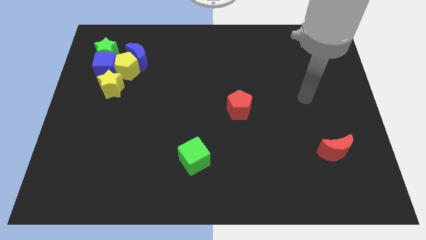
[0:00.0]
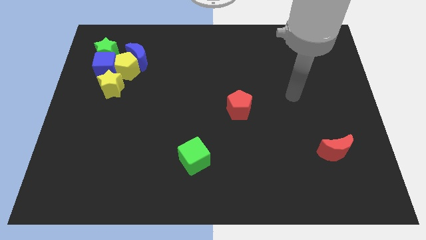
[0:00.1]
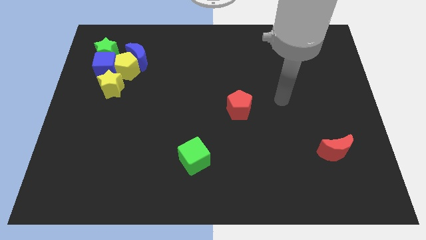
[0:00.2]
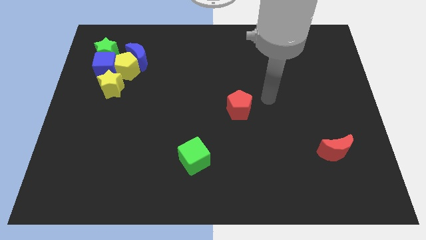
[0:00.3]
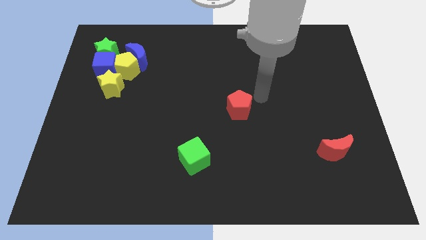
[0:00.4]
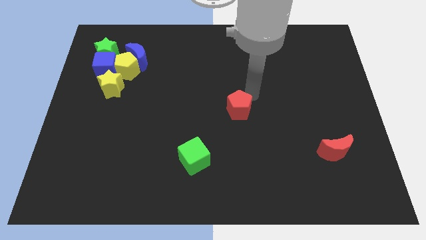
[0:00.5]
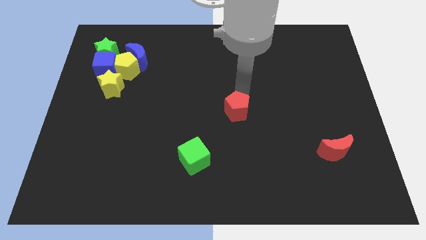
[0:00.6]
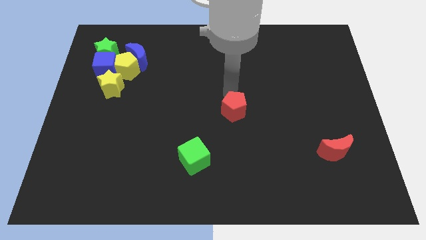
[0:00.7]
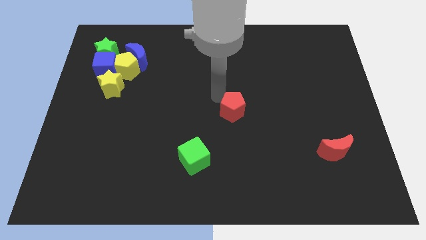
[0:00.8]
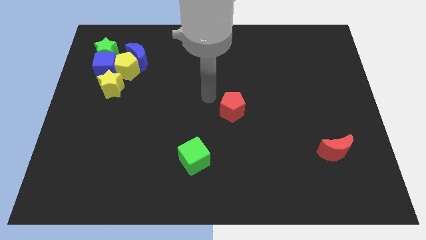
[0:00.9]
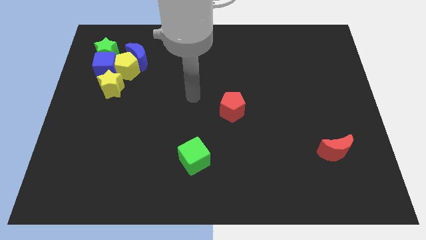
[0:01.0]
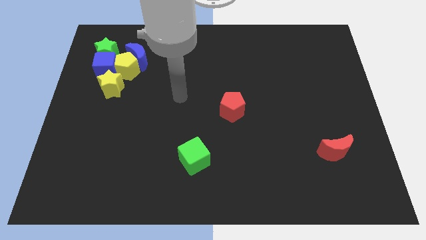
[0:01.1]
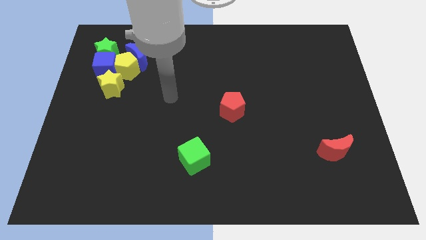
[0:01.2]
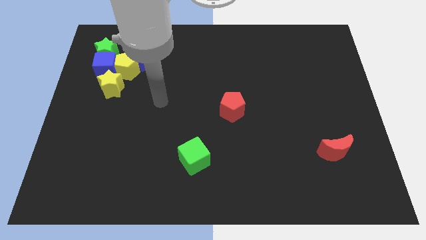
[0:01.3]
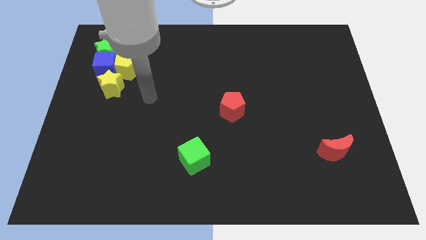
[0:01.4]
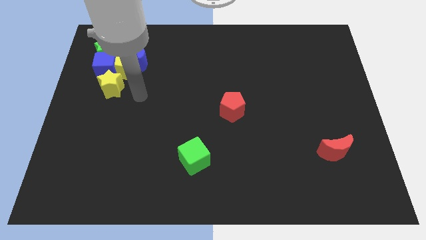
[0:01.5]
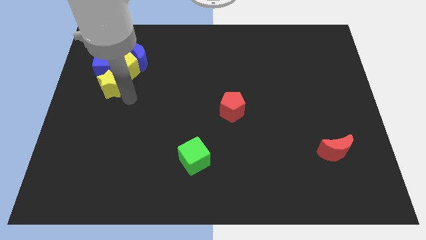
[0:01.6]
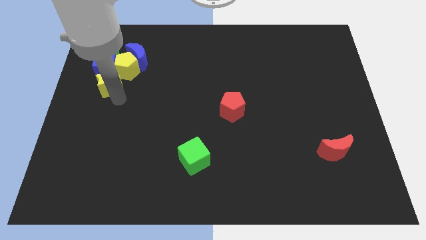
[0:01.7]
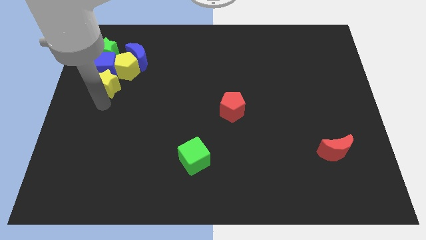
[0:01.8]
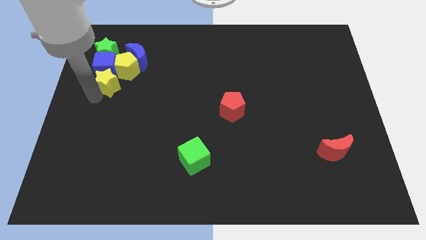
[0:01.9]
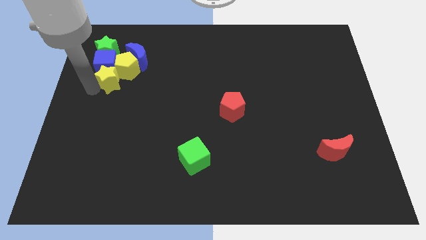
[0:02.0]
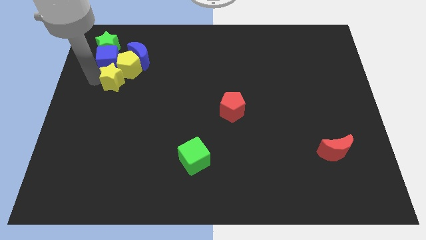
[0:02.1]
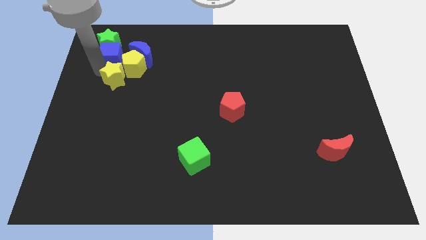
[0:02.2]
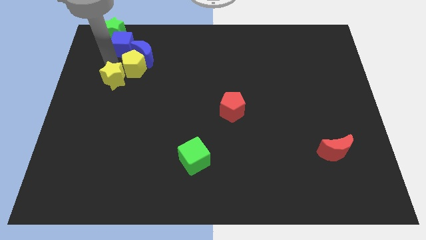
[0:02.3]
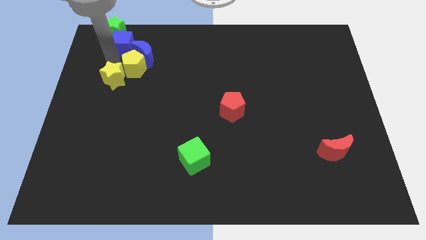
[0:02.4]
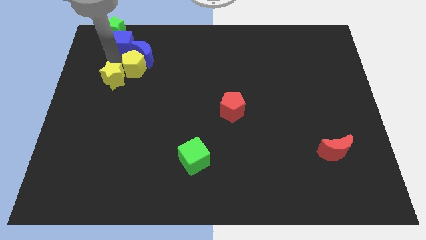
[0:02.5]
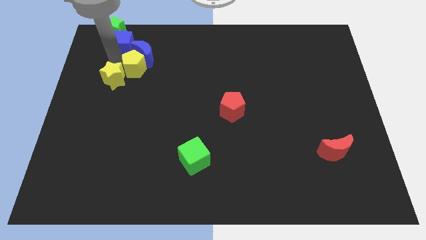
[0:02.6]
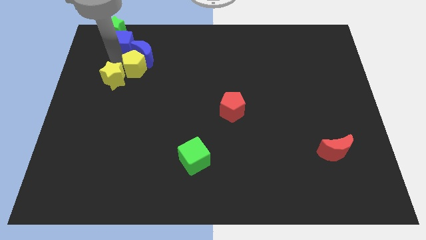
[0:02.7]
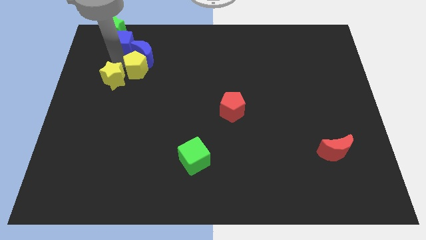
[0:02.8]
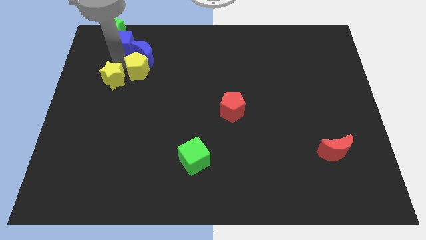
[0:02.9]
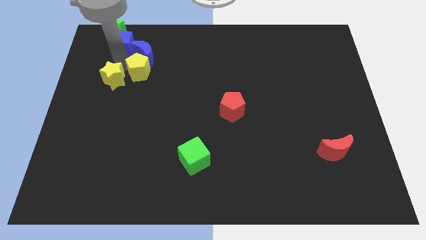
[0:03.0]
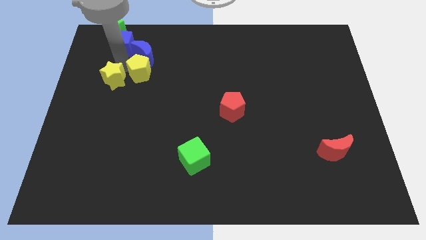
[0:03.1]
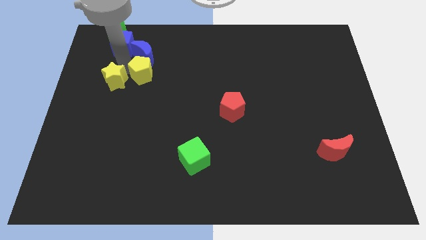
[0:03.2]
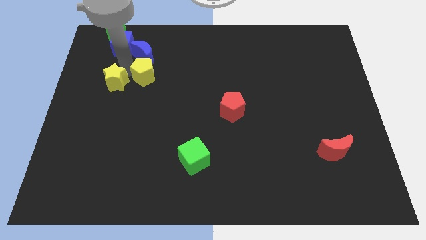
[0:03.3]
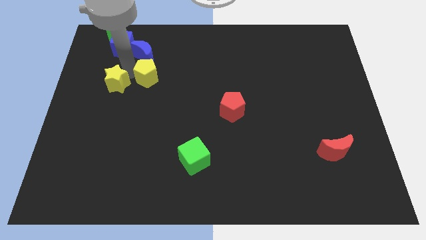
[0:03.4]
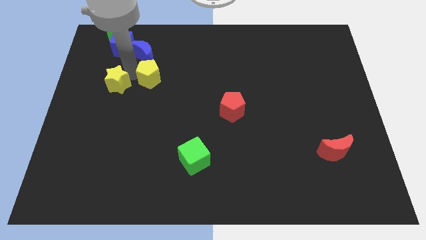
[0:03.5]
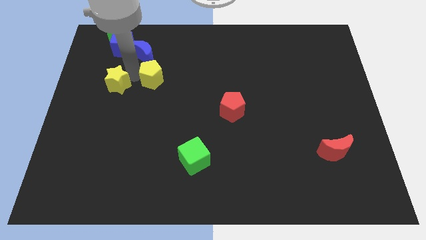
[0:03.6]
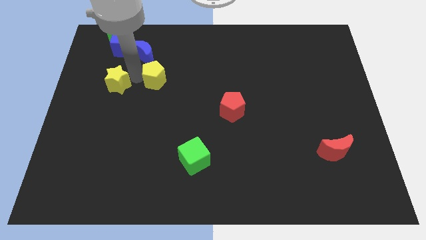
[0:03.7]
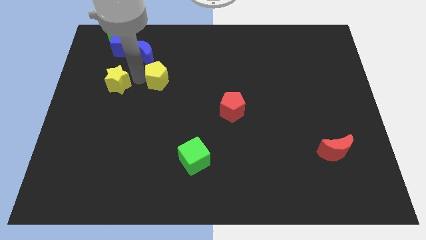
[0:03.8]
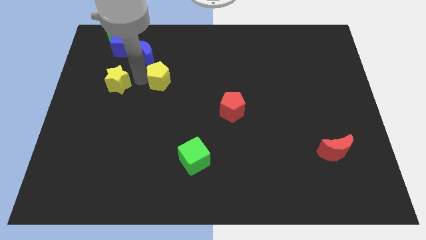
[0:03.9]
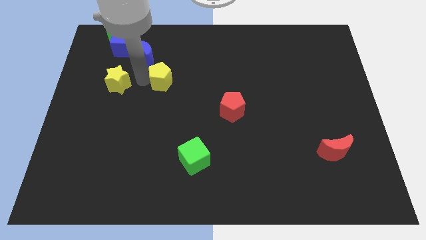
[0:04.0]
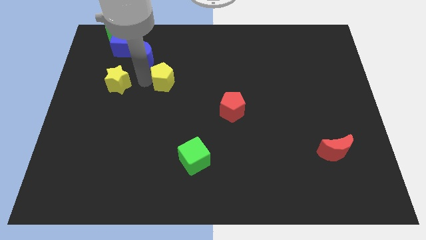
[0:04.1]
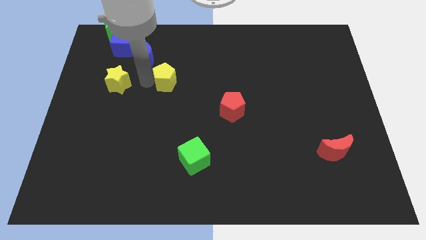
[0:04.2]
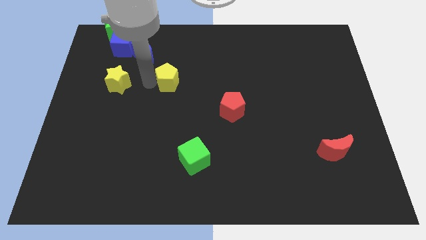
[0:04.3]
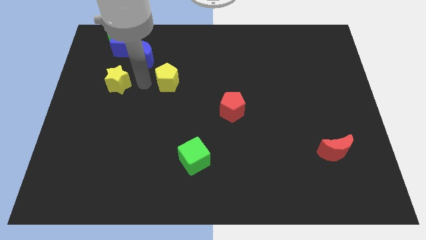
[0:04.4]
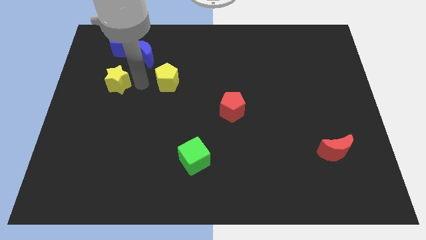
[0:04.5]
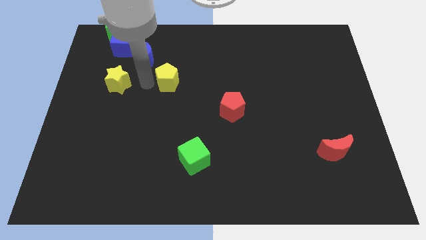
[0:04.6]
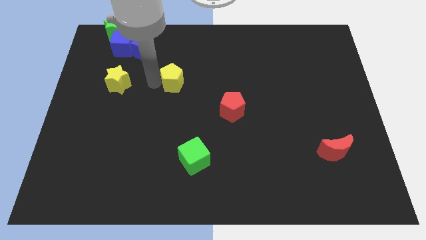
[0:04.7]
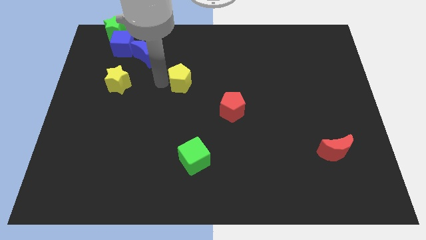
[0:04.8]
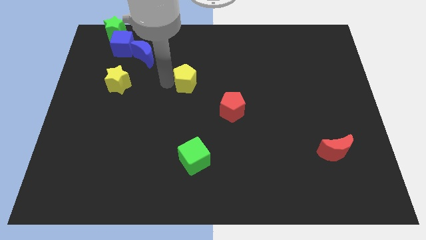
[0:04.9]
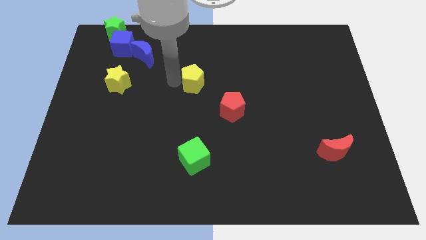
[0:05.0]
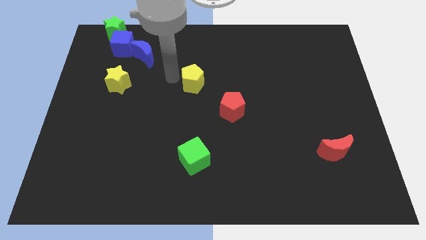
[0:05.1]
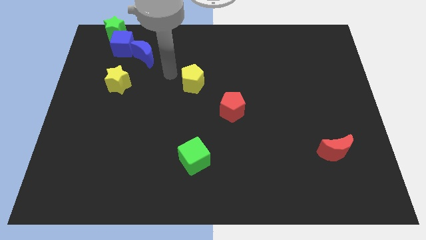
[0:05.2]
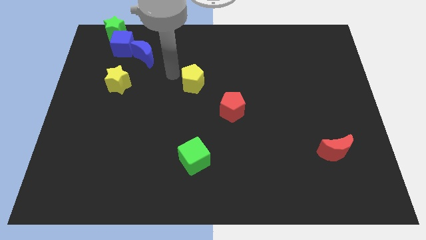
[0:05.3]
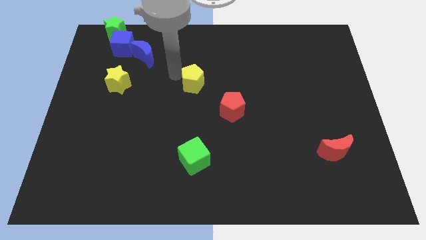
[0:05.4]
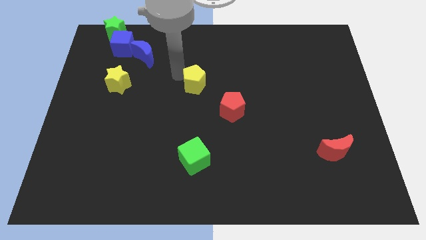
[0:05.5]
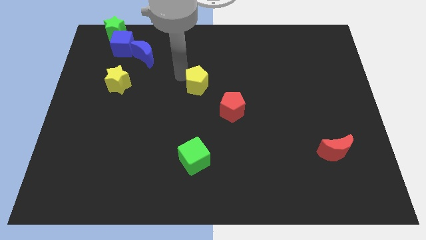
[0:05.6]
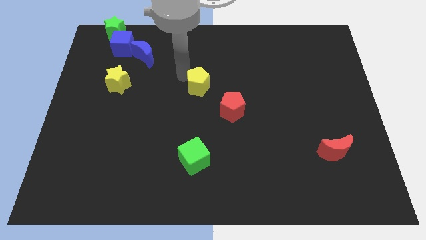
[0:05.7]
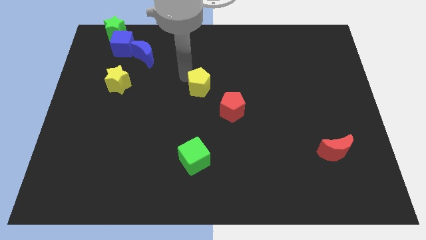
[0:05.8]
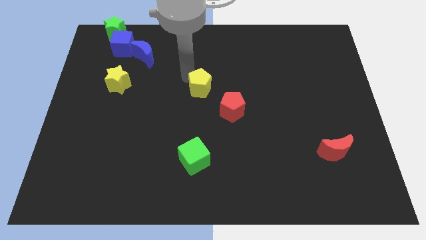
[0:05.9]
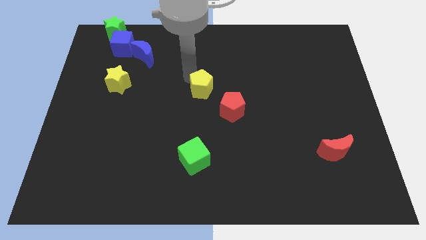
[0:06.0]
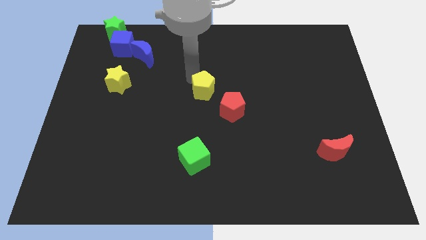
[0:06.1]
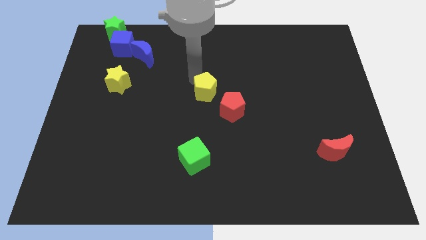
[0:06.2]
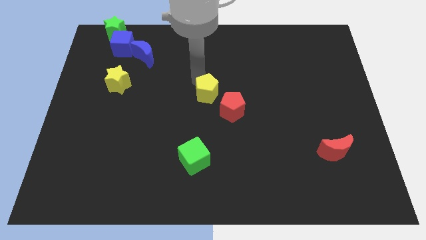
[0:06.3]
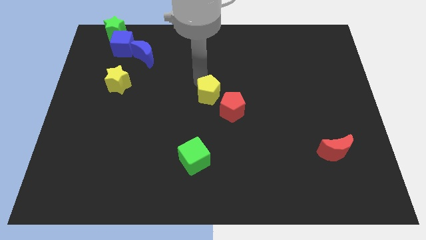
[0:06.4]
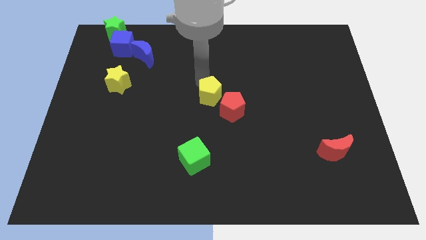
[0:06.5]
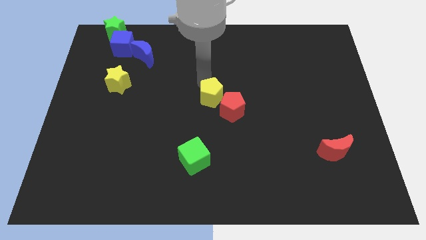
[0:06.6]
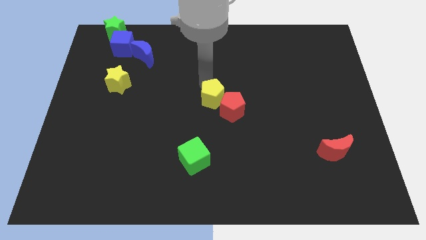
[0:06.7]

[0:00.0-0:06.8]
move the yellow pentagon to the red pentagon

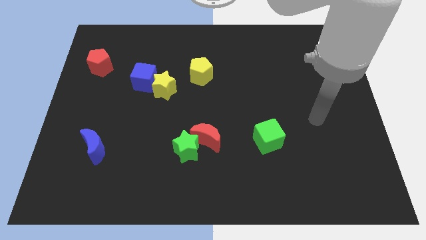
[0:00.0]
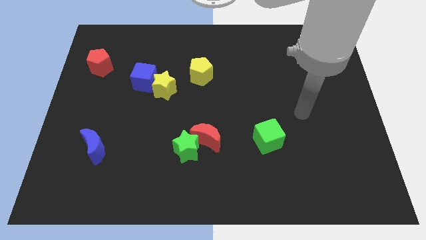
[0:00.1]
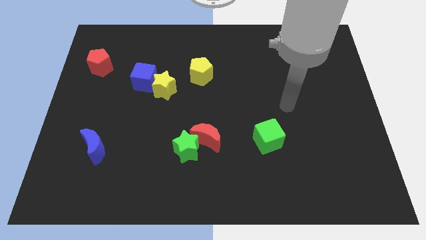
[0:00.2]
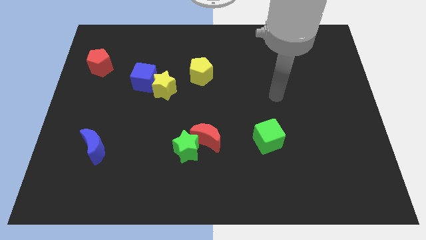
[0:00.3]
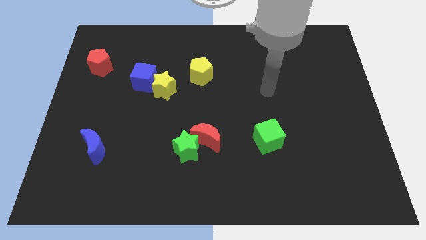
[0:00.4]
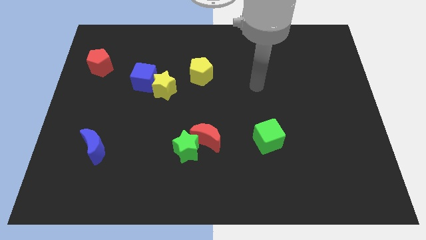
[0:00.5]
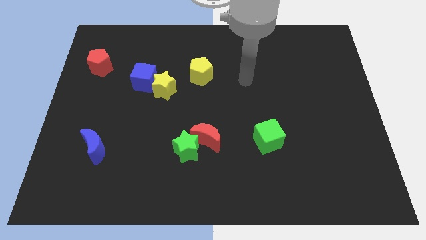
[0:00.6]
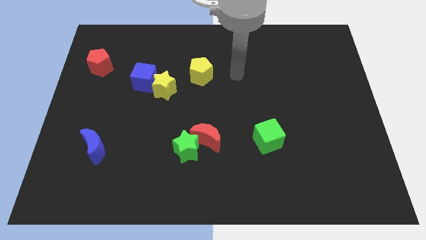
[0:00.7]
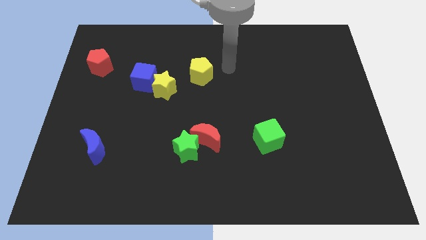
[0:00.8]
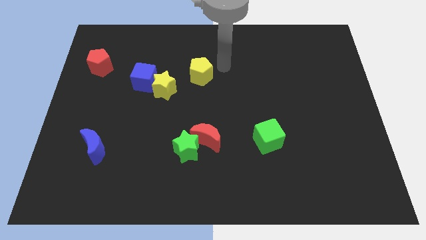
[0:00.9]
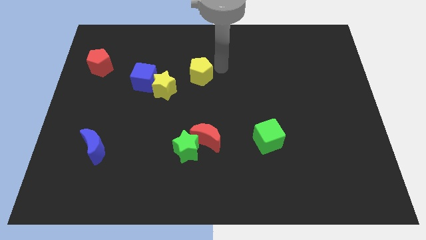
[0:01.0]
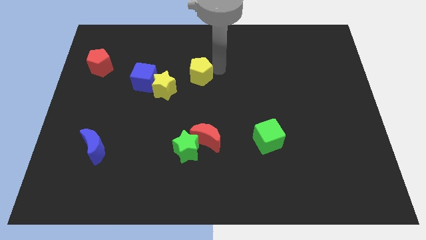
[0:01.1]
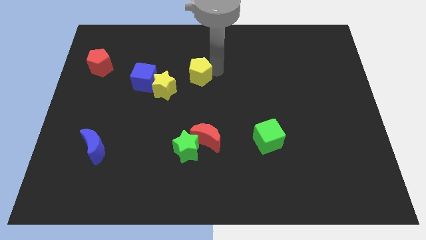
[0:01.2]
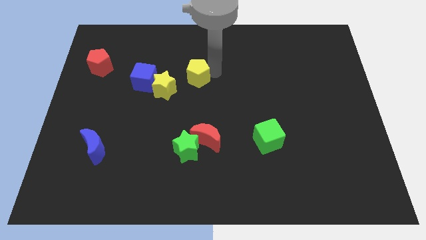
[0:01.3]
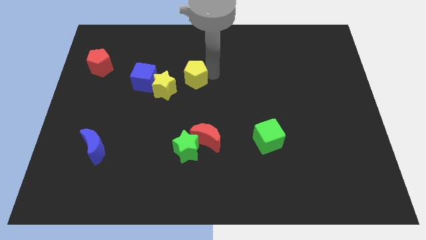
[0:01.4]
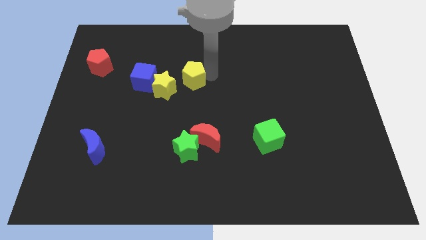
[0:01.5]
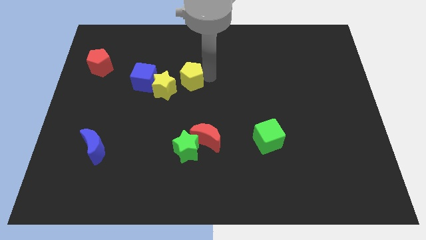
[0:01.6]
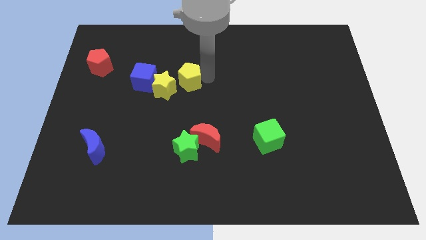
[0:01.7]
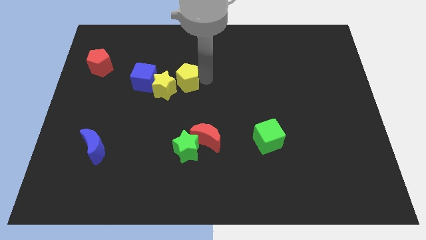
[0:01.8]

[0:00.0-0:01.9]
push the yellow pentagon next to the yellow star
